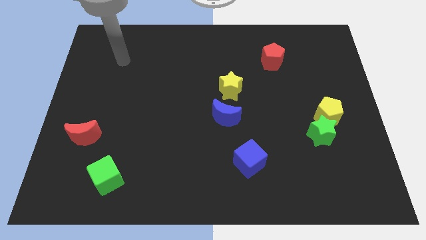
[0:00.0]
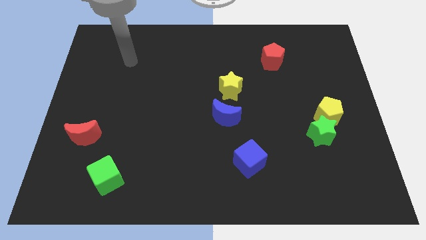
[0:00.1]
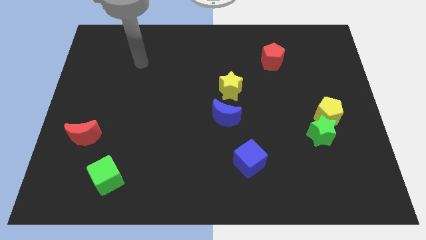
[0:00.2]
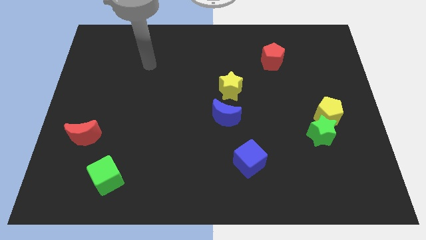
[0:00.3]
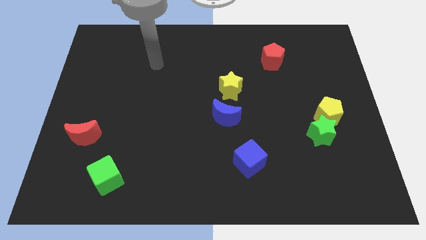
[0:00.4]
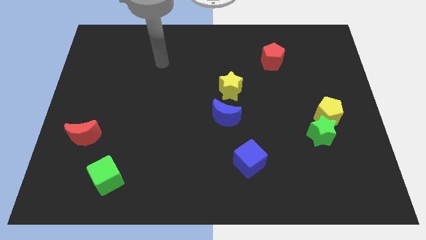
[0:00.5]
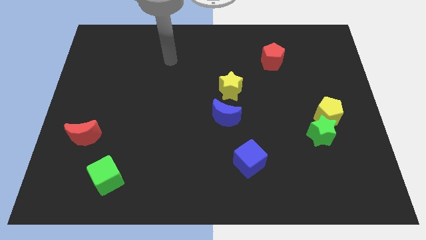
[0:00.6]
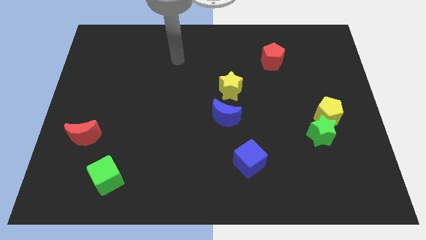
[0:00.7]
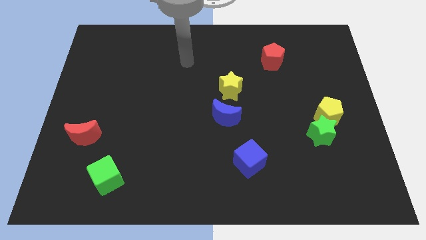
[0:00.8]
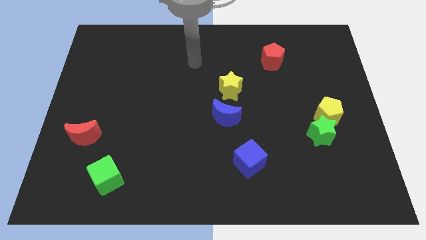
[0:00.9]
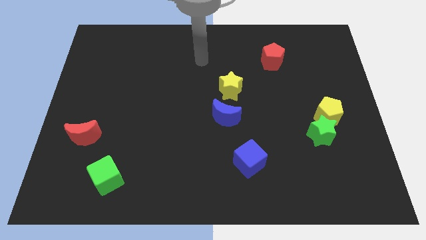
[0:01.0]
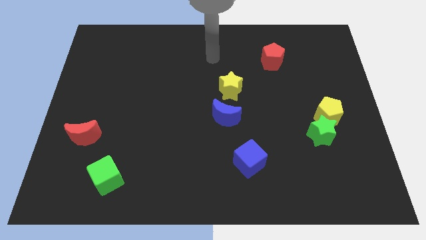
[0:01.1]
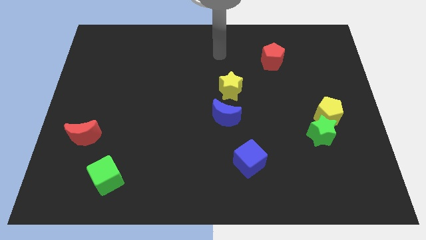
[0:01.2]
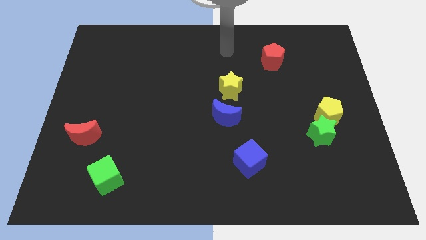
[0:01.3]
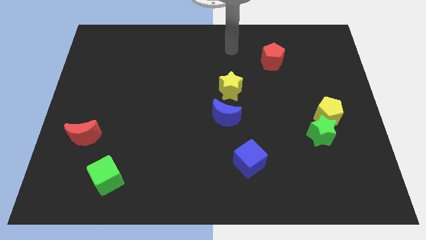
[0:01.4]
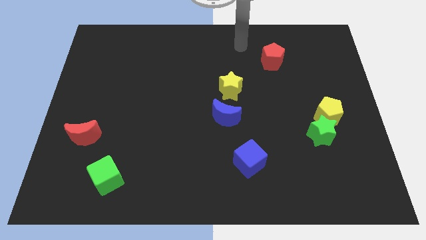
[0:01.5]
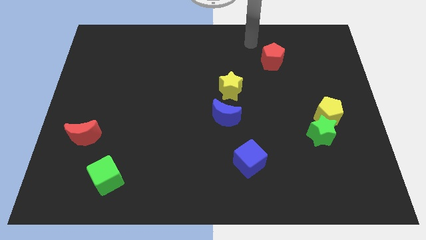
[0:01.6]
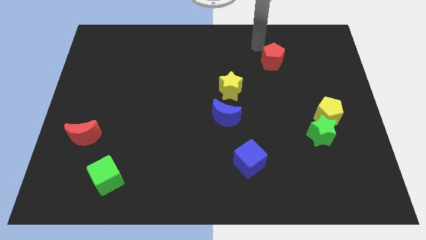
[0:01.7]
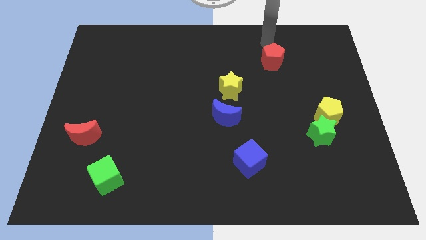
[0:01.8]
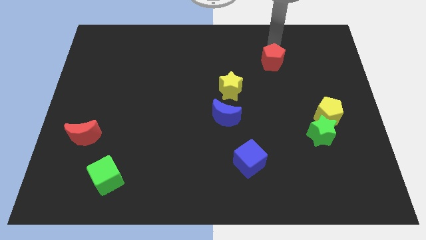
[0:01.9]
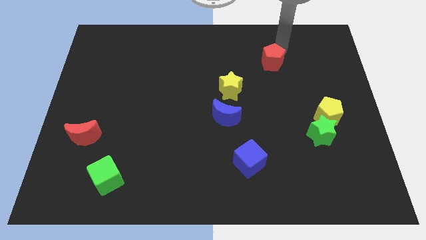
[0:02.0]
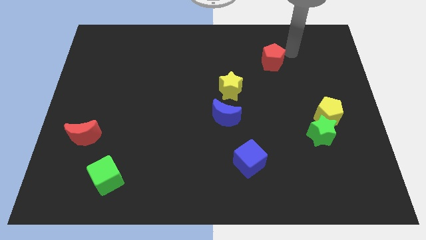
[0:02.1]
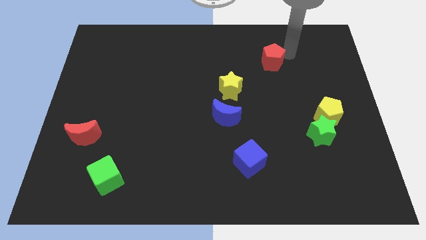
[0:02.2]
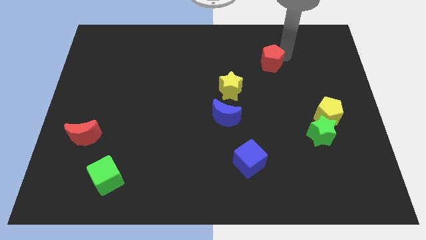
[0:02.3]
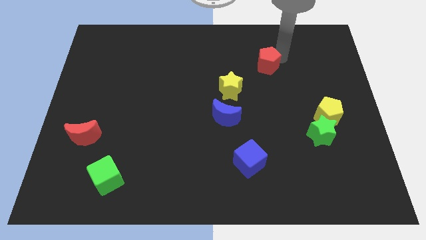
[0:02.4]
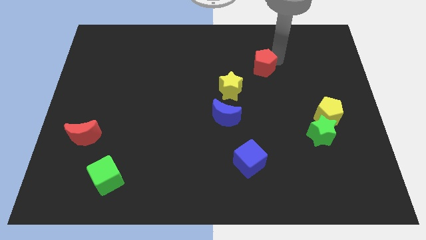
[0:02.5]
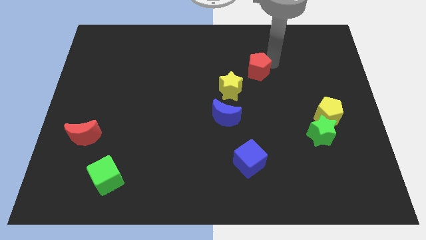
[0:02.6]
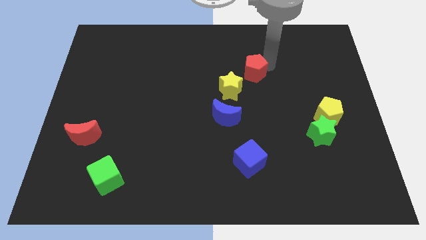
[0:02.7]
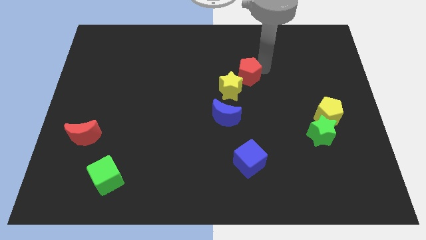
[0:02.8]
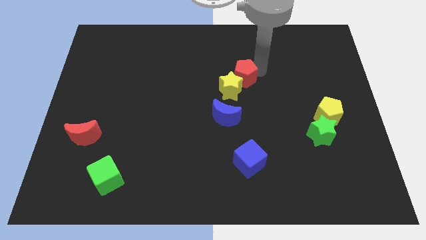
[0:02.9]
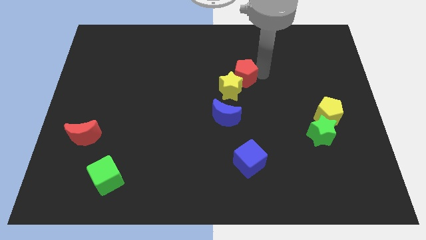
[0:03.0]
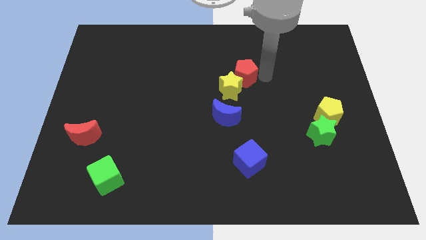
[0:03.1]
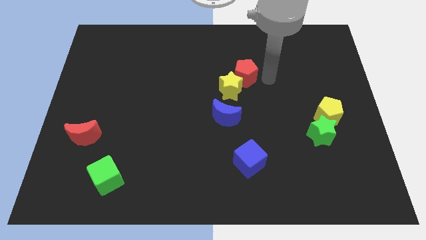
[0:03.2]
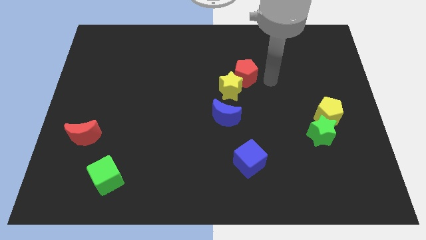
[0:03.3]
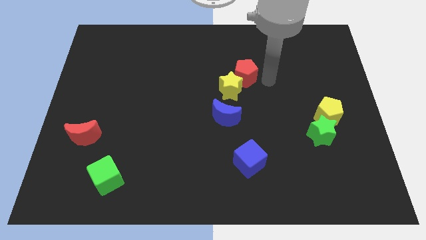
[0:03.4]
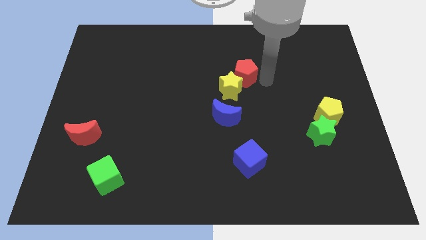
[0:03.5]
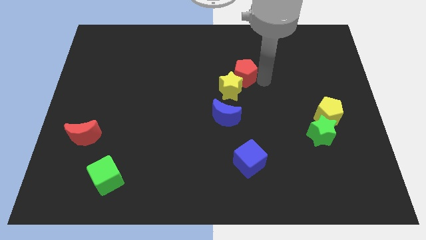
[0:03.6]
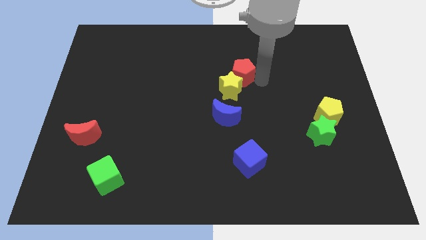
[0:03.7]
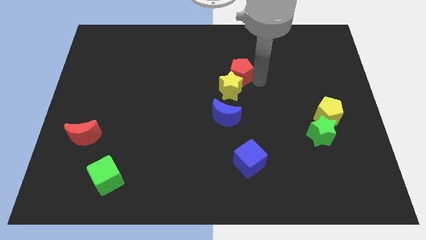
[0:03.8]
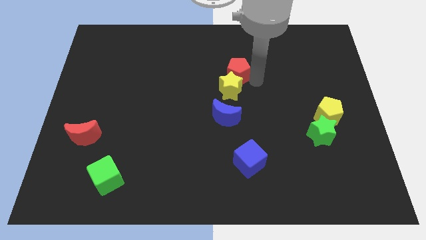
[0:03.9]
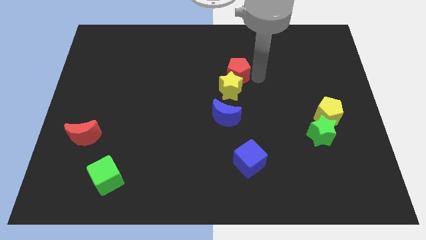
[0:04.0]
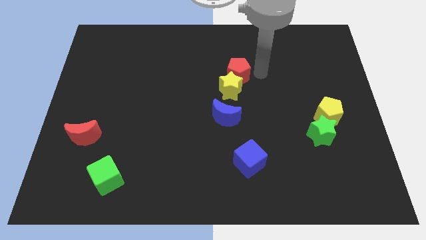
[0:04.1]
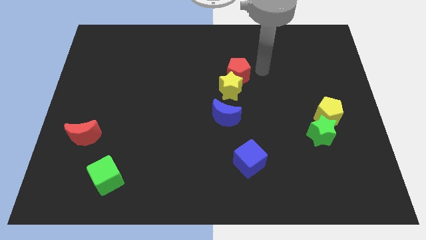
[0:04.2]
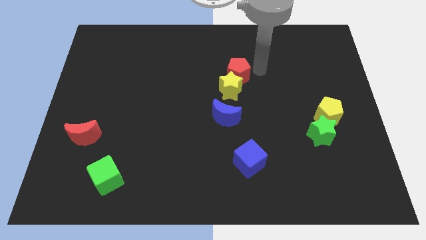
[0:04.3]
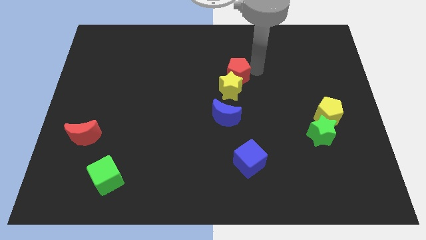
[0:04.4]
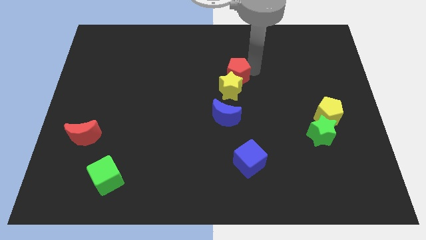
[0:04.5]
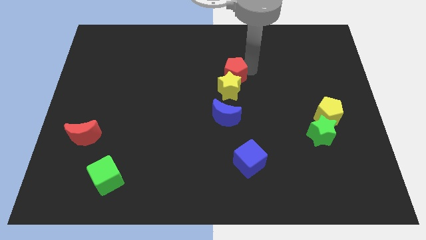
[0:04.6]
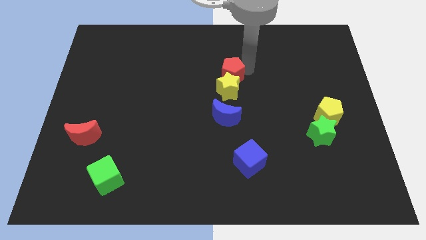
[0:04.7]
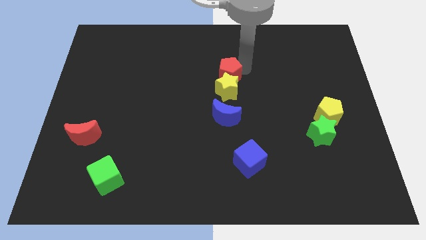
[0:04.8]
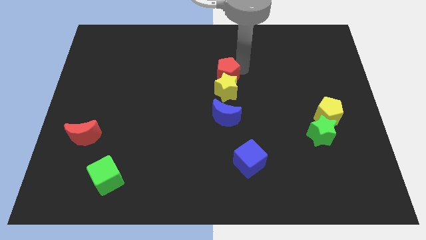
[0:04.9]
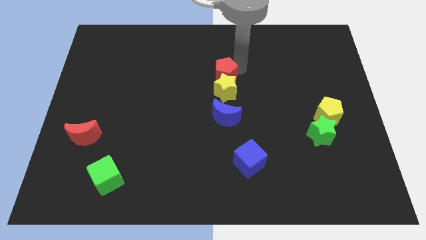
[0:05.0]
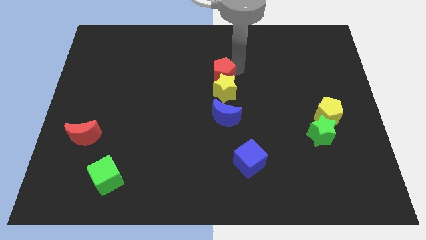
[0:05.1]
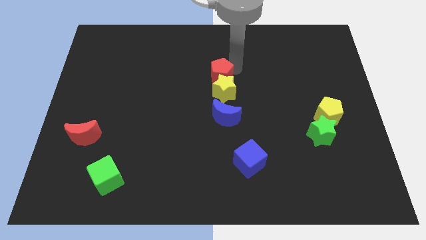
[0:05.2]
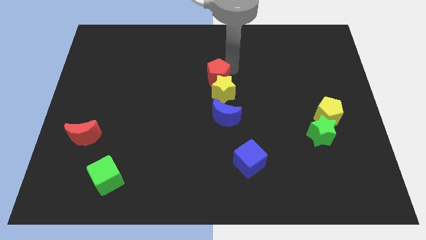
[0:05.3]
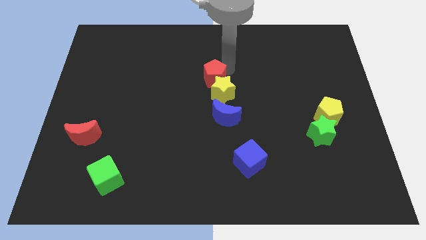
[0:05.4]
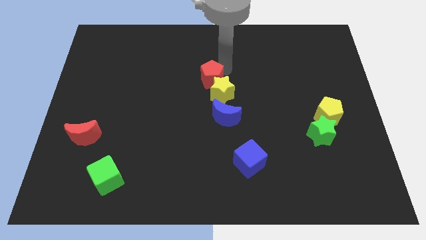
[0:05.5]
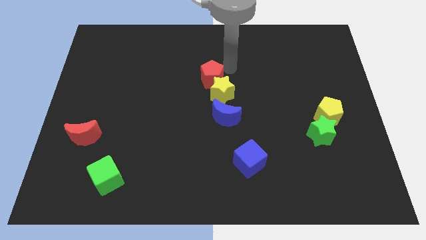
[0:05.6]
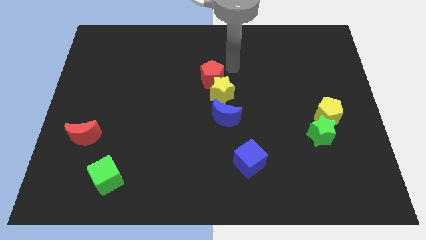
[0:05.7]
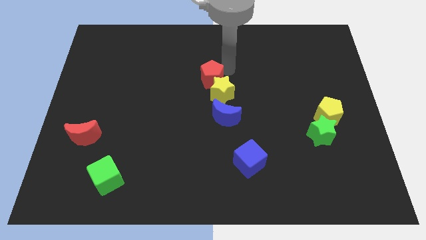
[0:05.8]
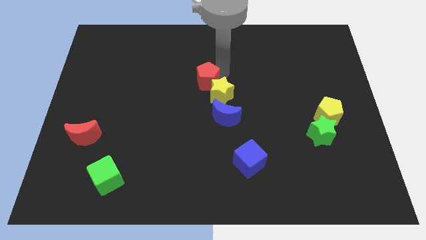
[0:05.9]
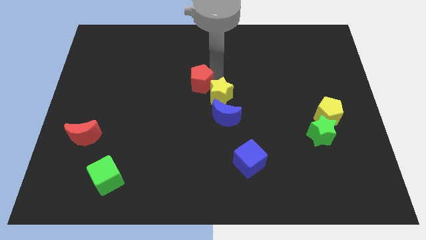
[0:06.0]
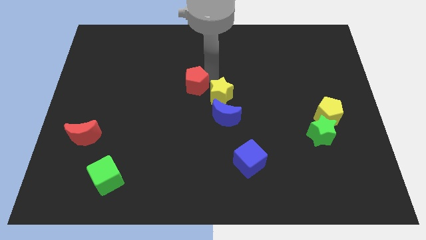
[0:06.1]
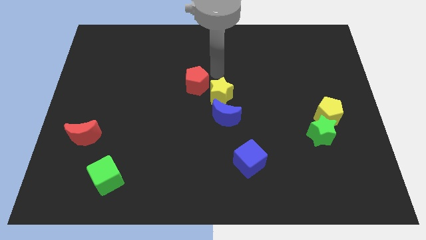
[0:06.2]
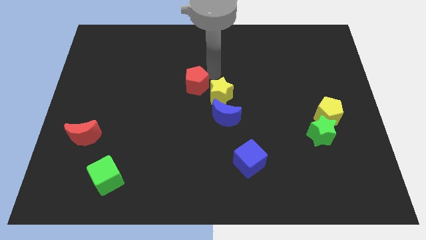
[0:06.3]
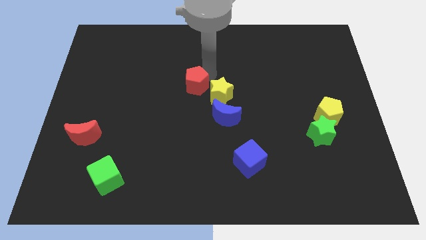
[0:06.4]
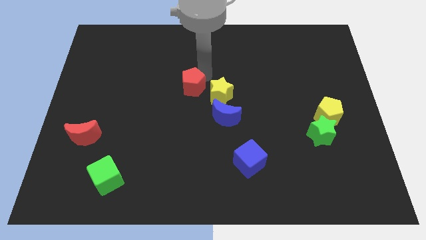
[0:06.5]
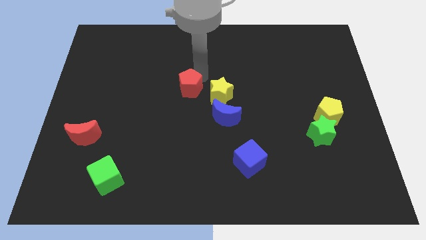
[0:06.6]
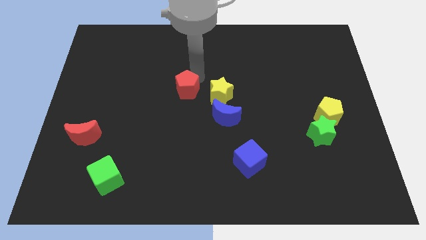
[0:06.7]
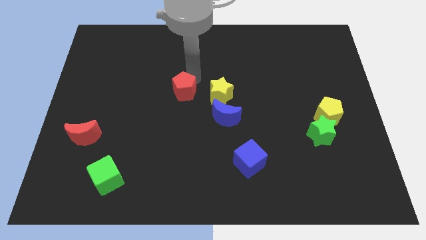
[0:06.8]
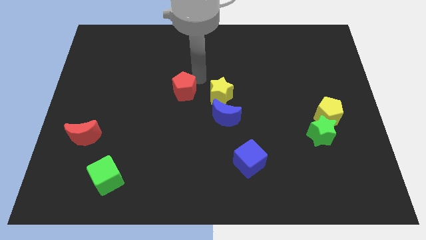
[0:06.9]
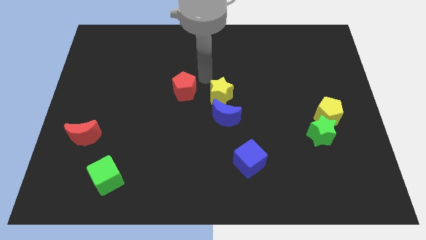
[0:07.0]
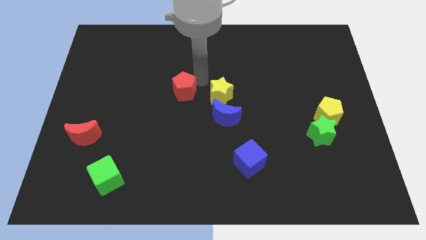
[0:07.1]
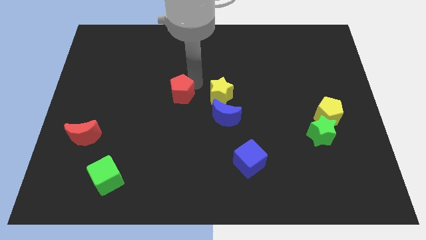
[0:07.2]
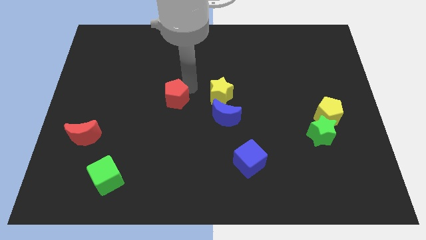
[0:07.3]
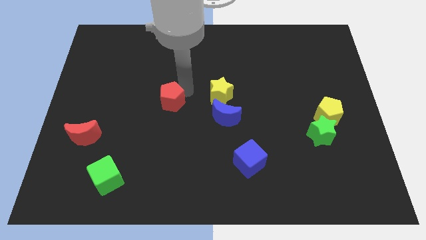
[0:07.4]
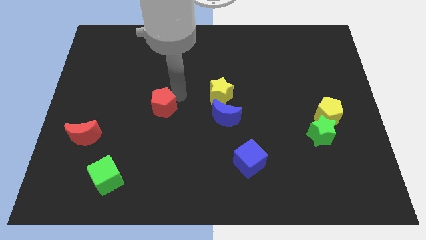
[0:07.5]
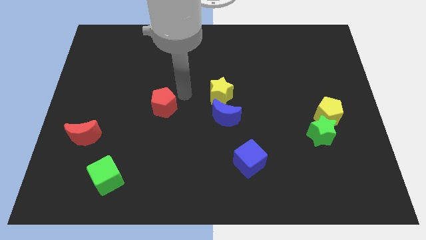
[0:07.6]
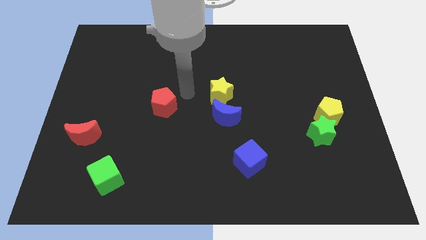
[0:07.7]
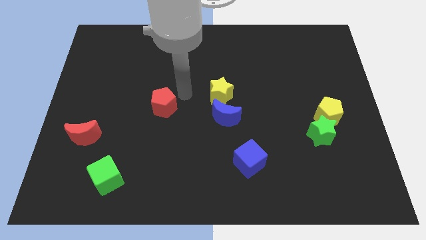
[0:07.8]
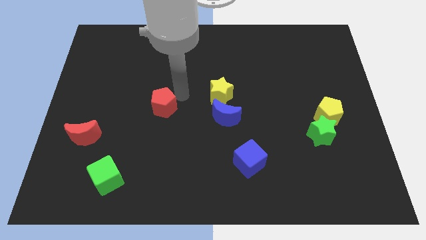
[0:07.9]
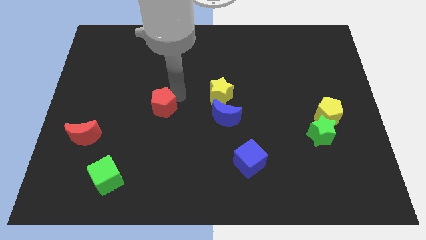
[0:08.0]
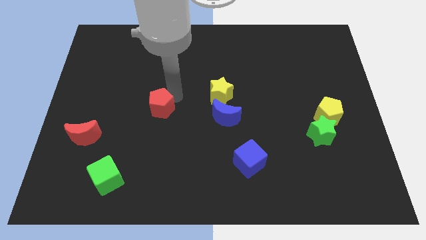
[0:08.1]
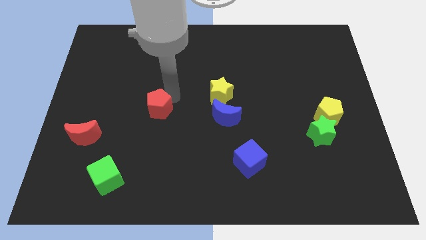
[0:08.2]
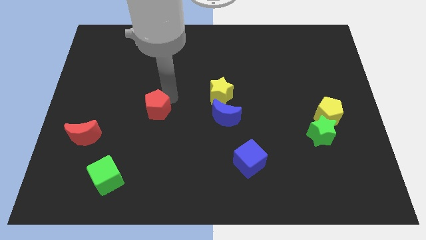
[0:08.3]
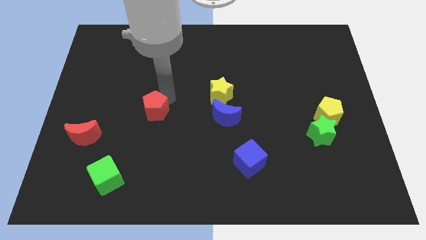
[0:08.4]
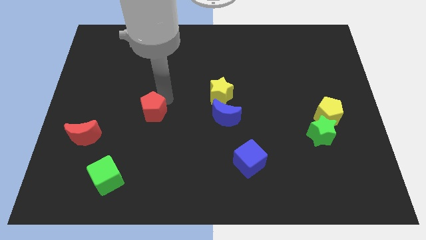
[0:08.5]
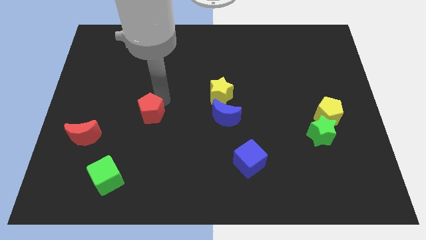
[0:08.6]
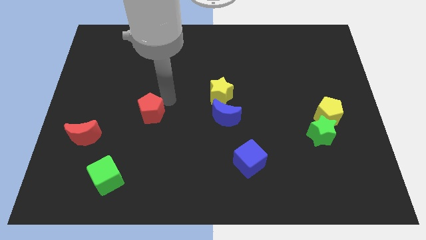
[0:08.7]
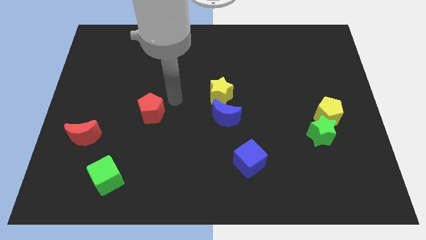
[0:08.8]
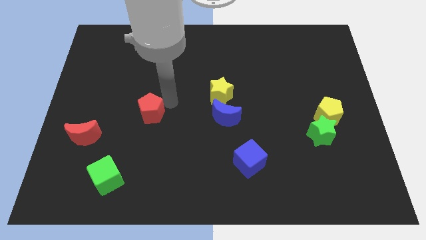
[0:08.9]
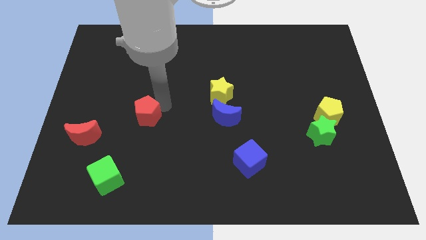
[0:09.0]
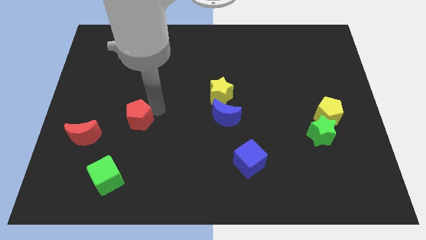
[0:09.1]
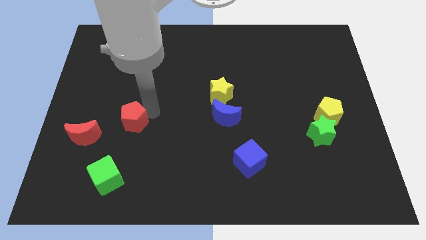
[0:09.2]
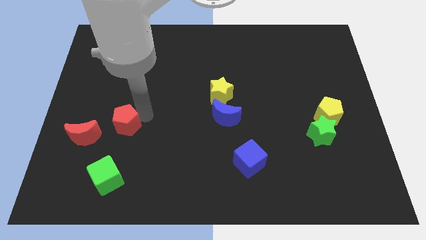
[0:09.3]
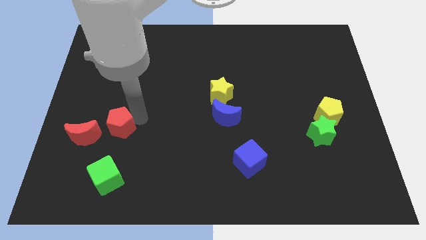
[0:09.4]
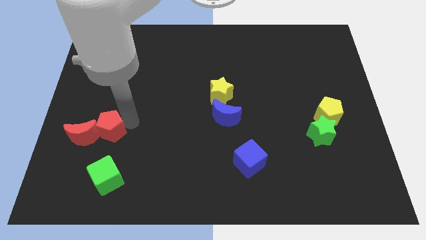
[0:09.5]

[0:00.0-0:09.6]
move the red pentagon next to the red moon
